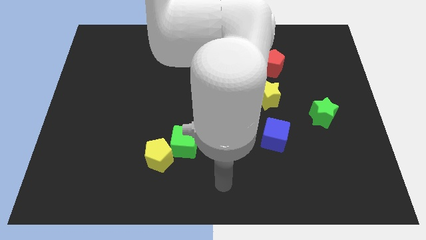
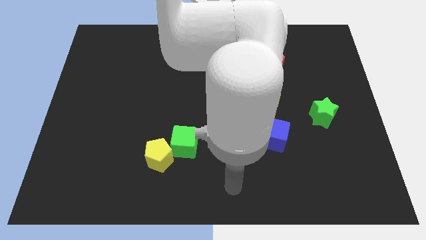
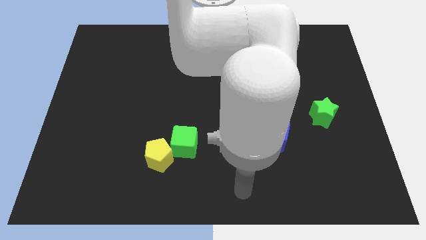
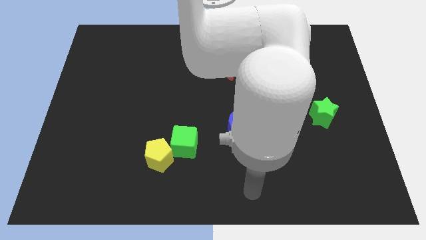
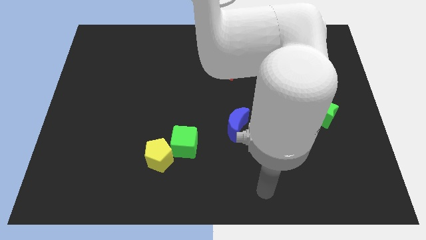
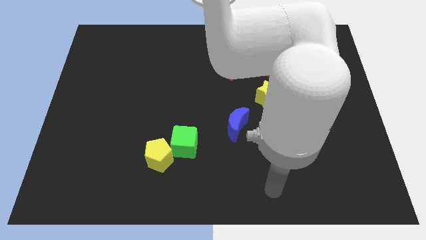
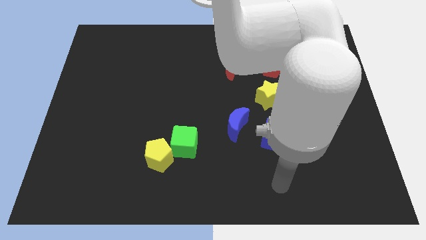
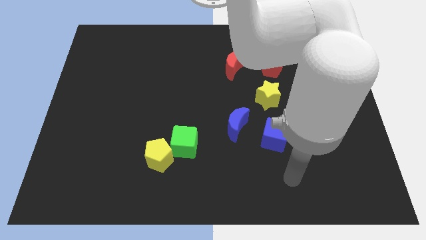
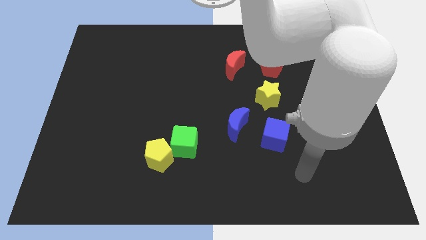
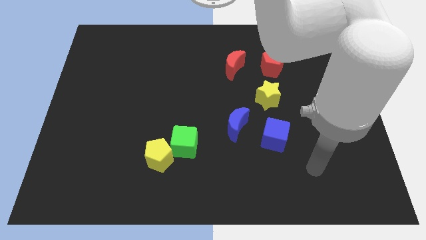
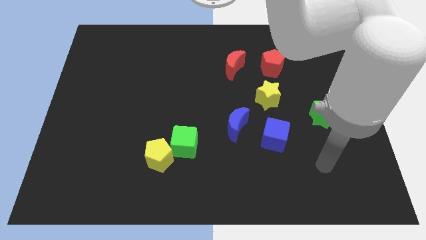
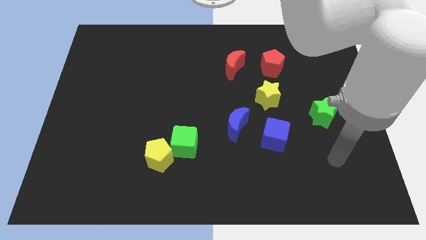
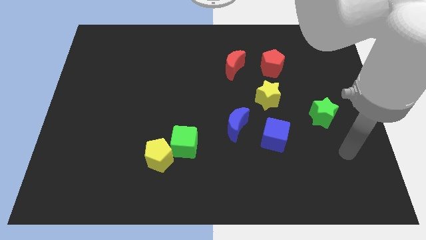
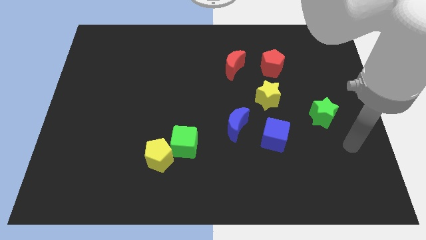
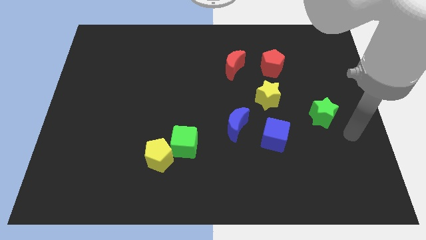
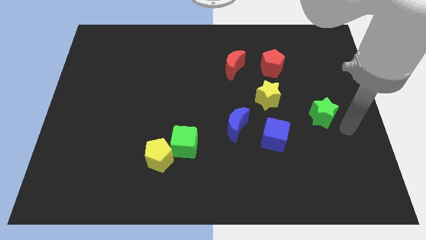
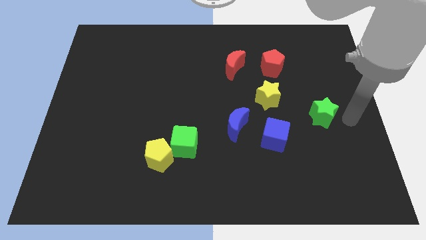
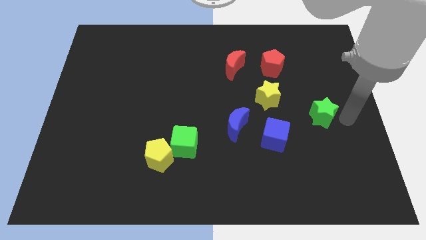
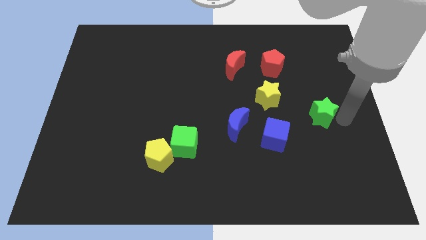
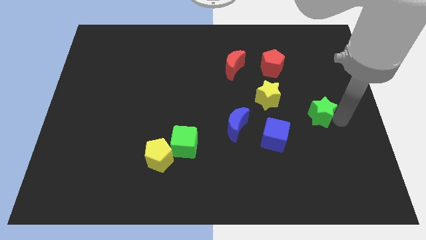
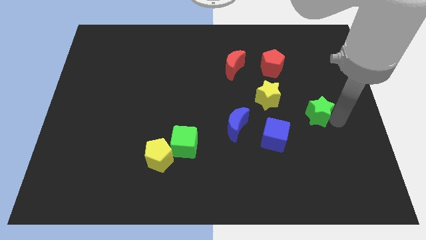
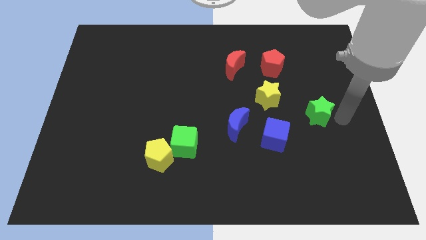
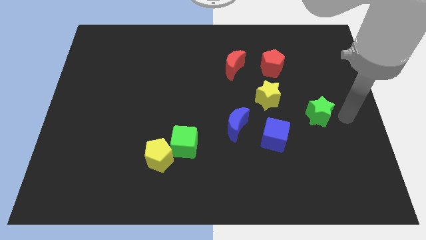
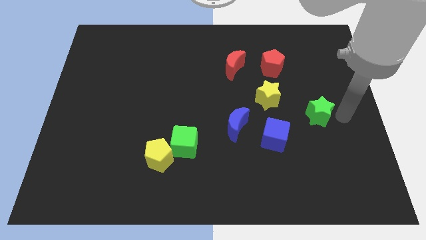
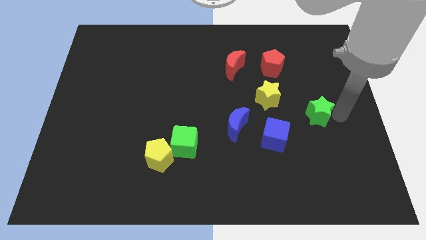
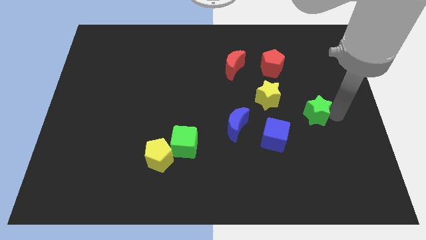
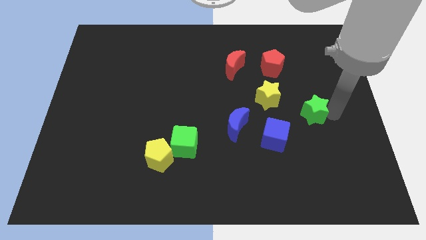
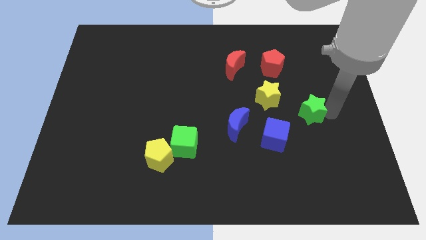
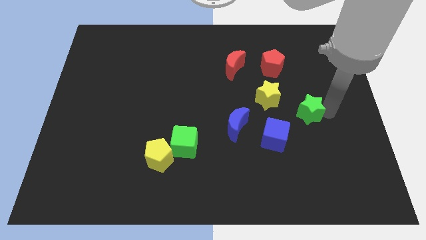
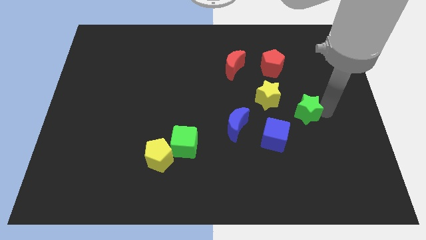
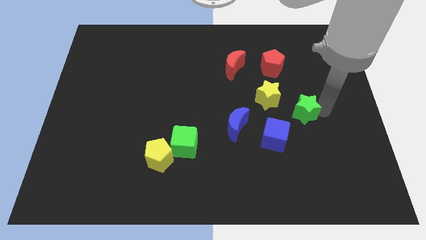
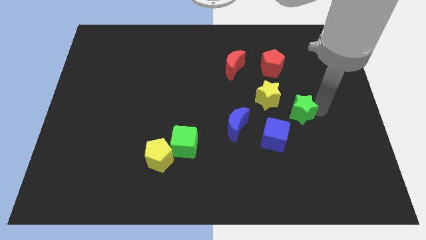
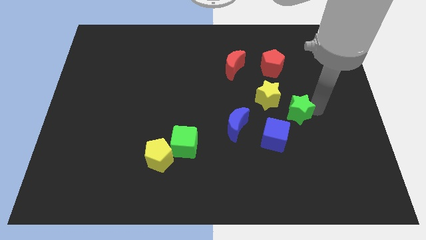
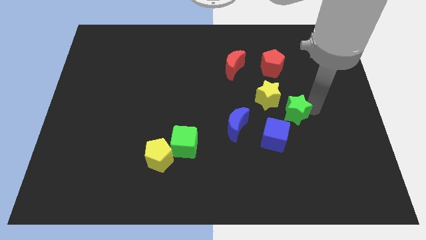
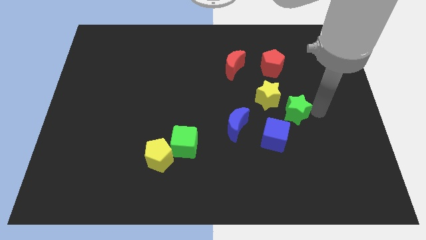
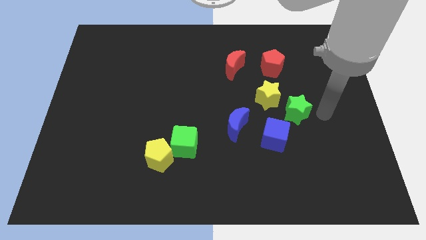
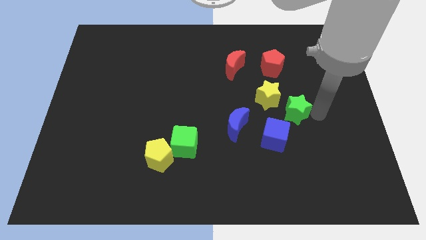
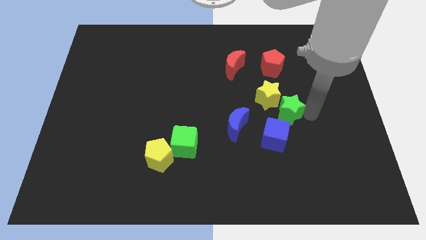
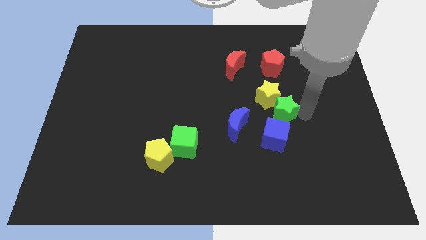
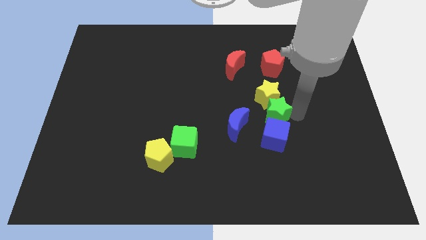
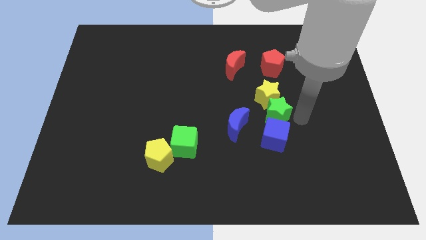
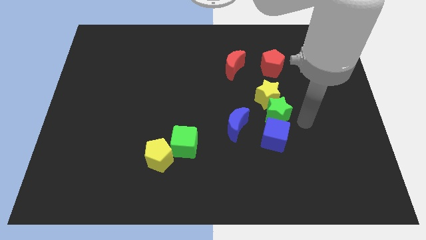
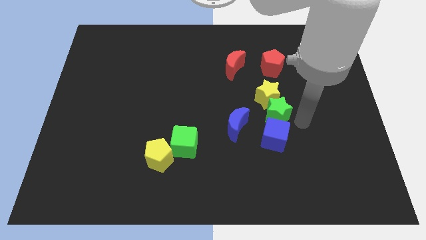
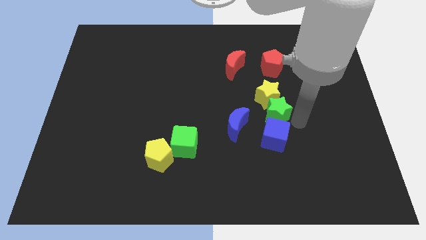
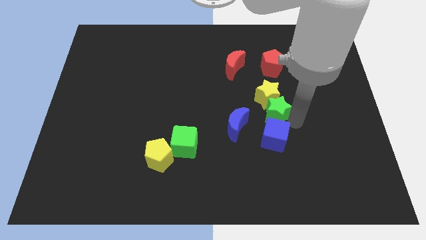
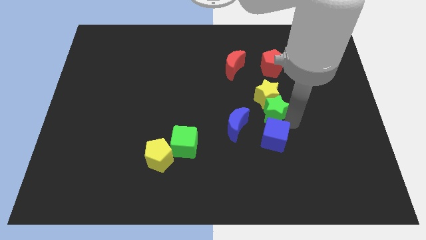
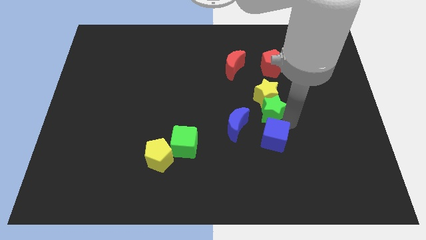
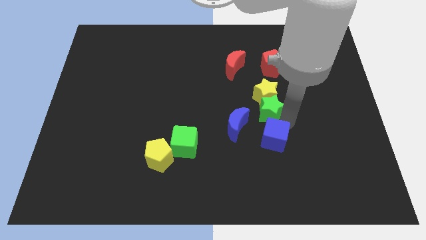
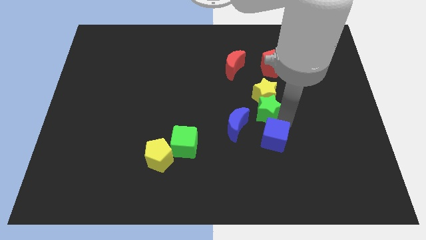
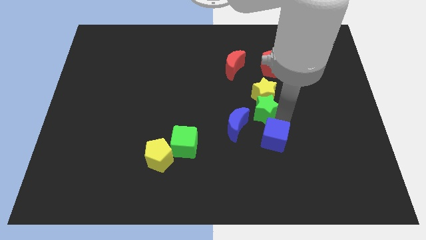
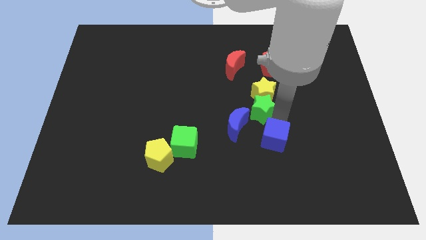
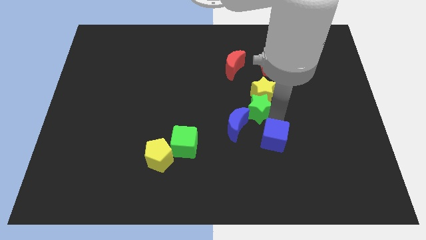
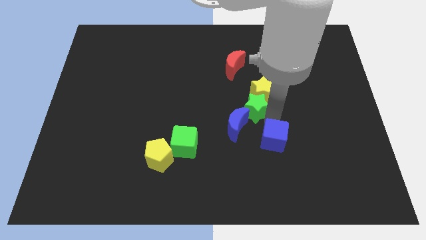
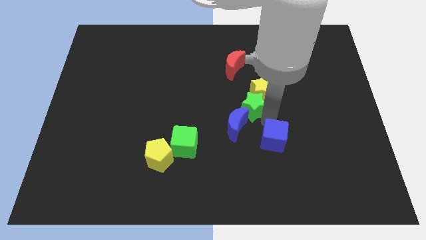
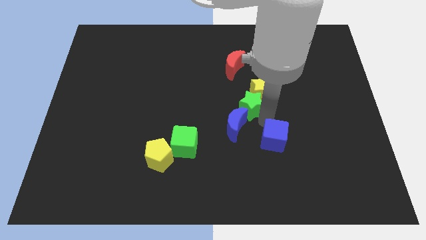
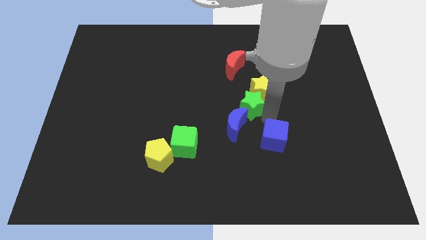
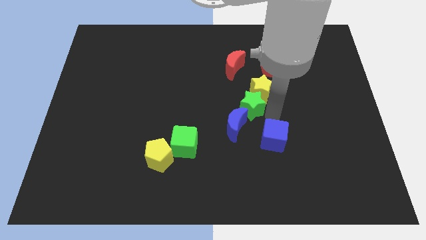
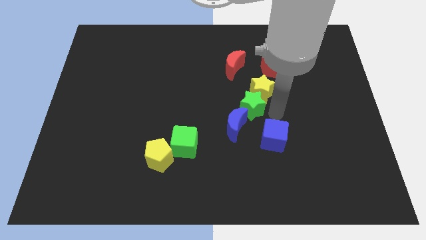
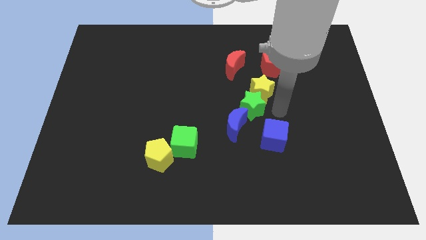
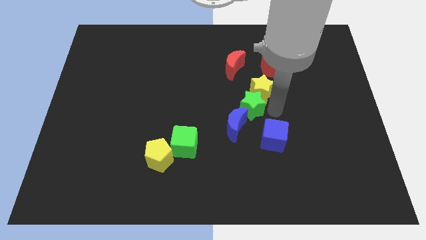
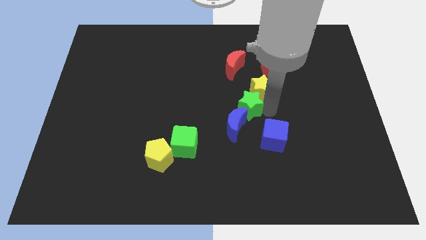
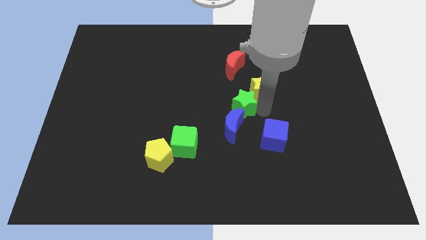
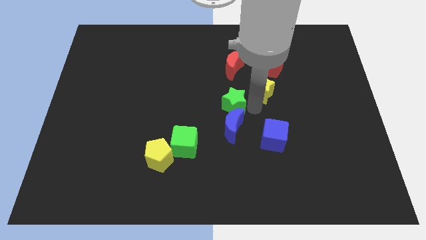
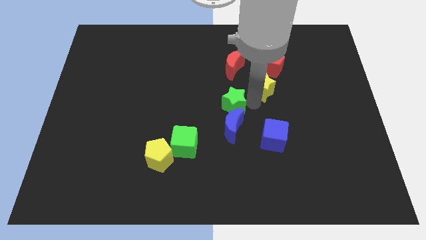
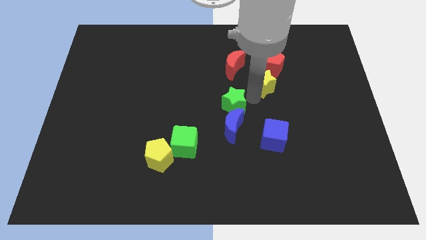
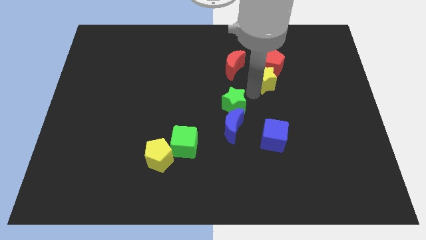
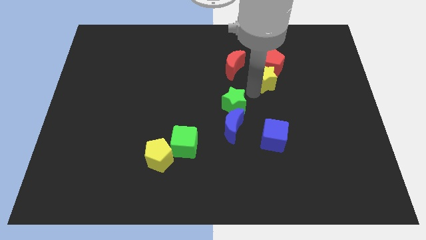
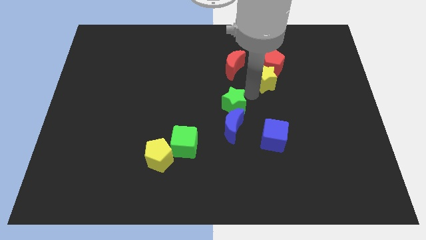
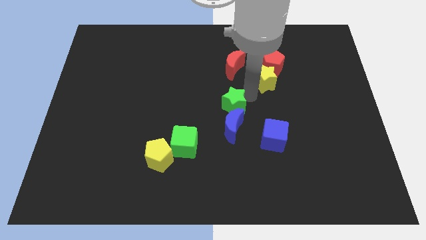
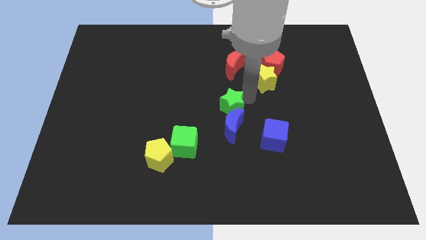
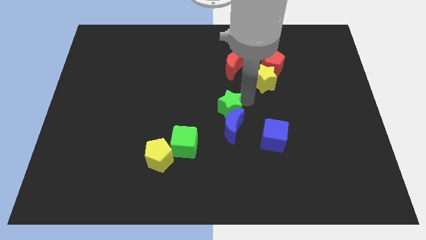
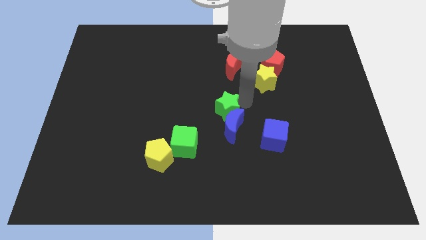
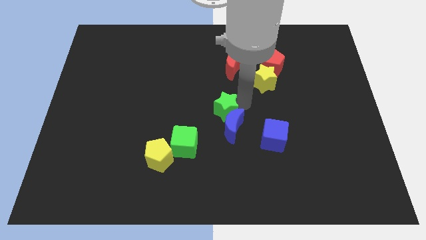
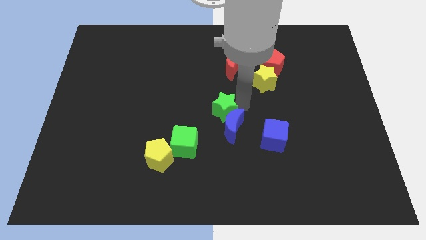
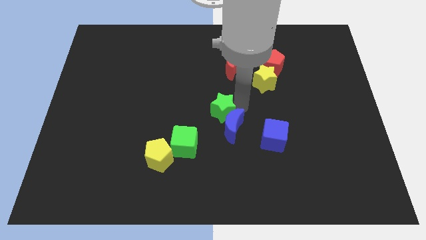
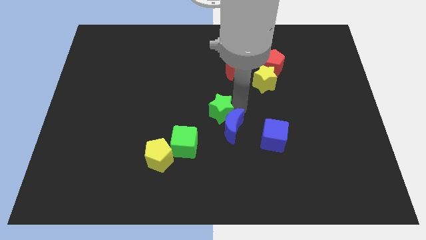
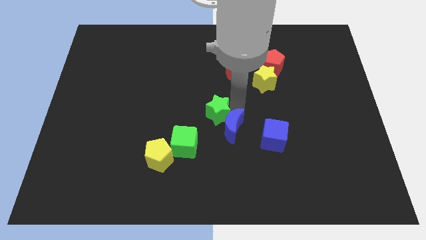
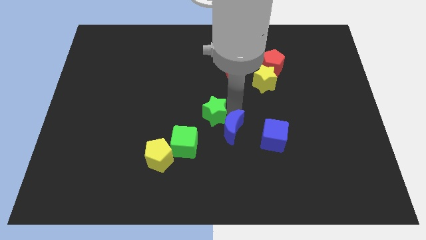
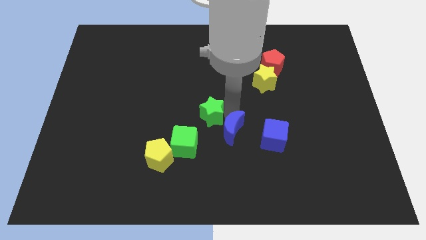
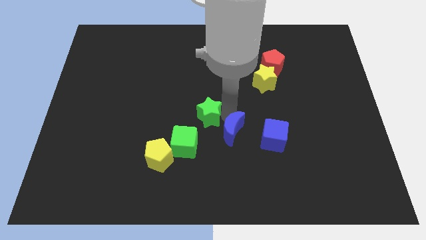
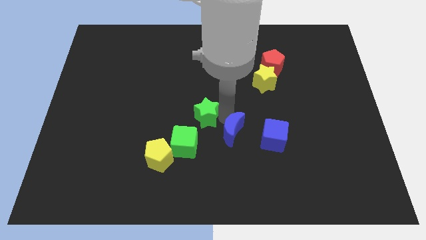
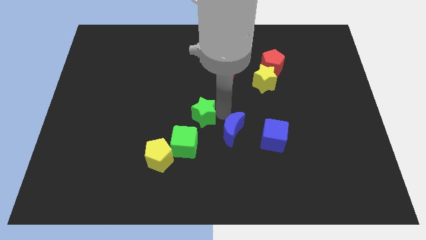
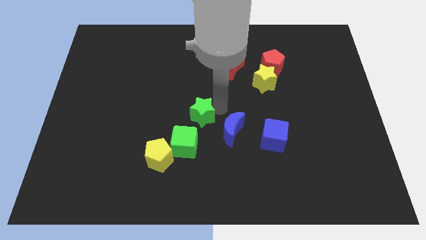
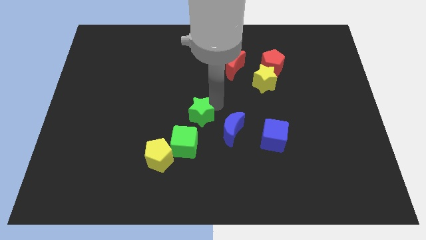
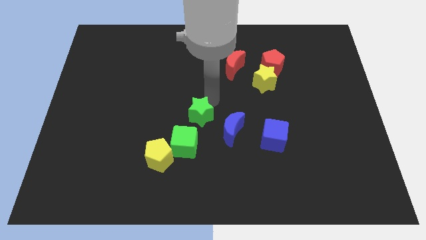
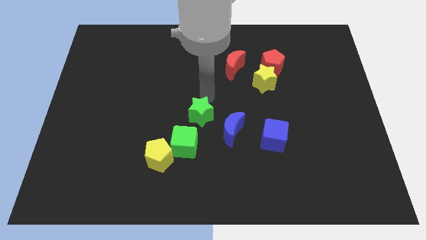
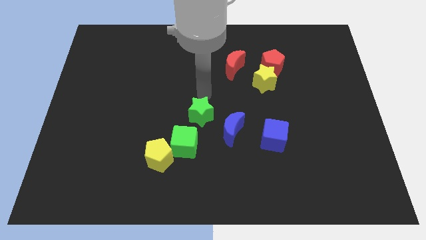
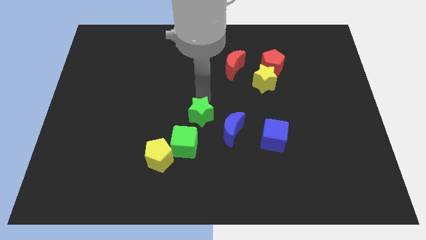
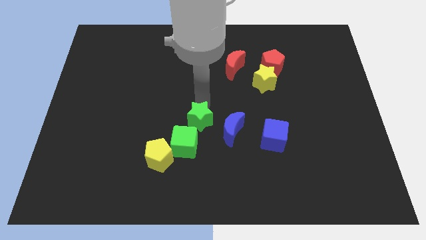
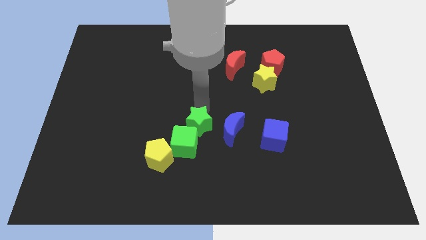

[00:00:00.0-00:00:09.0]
slide the green star to the green cube
